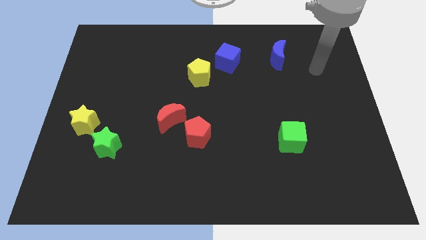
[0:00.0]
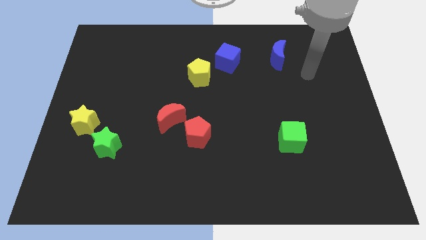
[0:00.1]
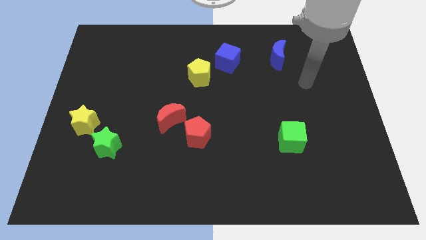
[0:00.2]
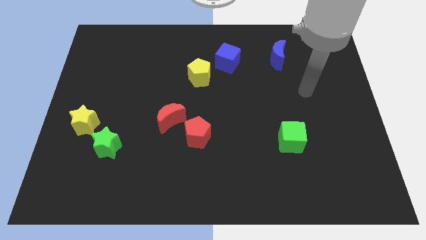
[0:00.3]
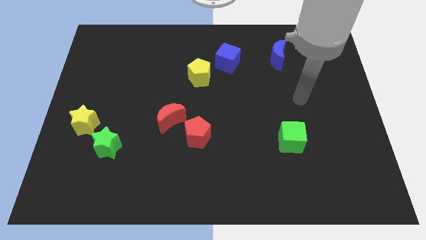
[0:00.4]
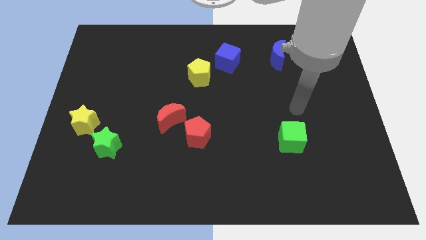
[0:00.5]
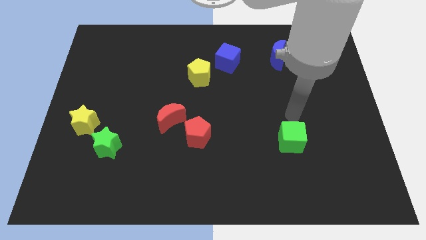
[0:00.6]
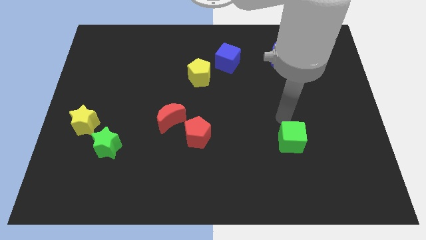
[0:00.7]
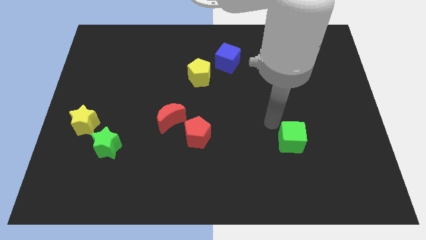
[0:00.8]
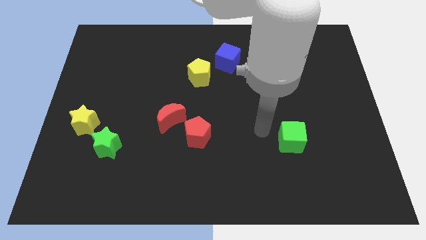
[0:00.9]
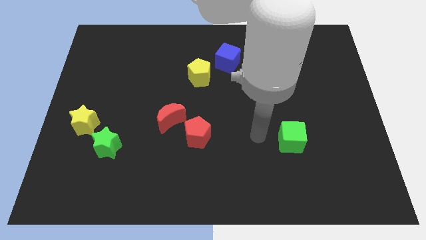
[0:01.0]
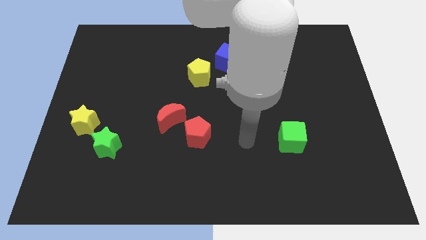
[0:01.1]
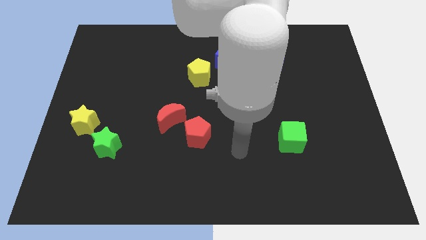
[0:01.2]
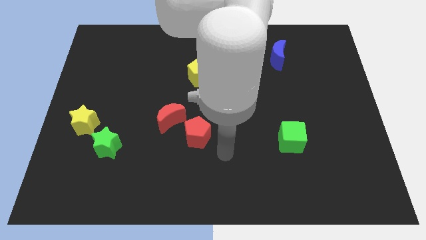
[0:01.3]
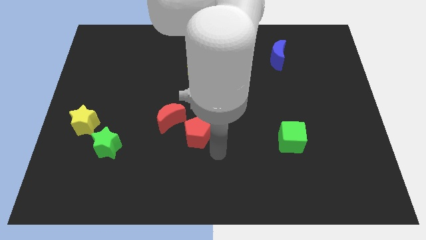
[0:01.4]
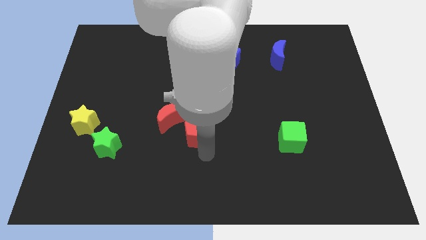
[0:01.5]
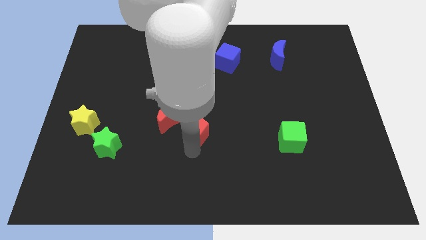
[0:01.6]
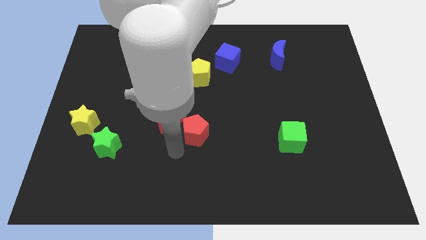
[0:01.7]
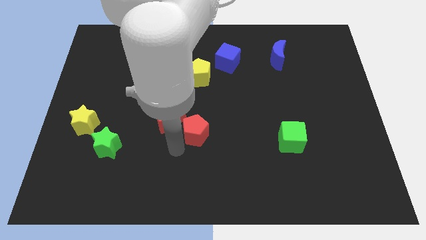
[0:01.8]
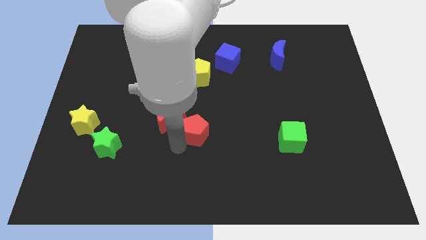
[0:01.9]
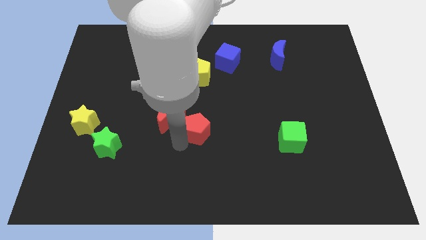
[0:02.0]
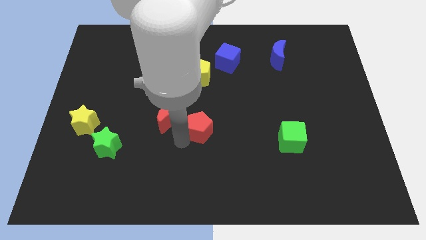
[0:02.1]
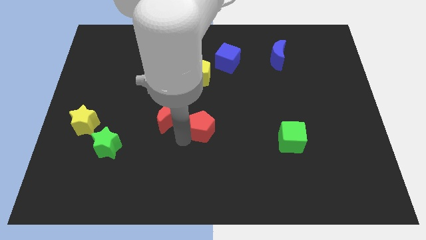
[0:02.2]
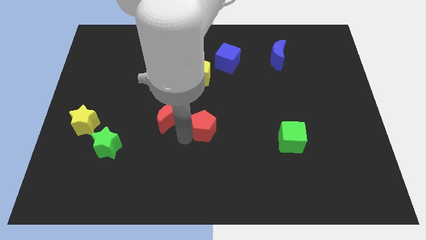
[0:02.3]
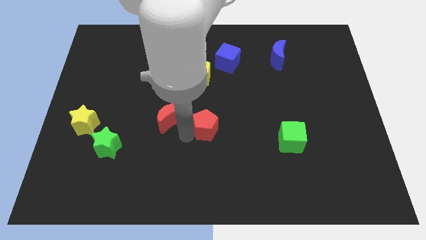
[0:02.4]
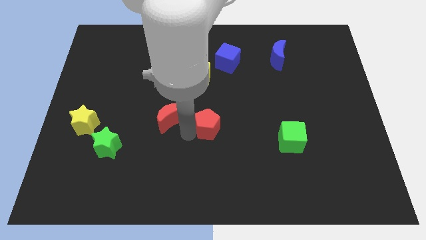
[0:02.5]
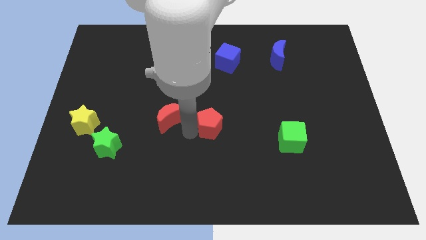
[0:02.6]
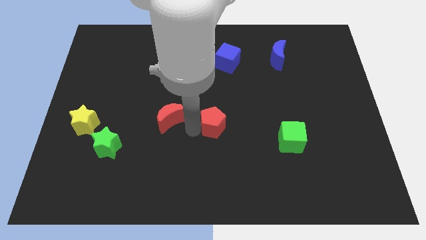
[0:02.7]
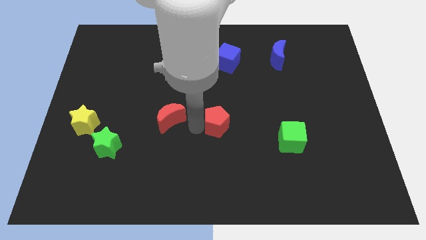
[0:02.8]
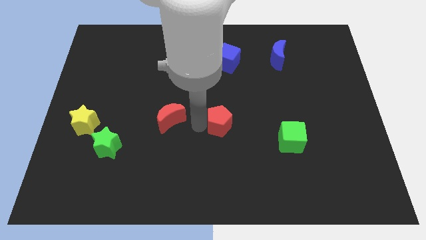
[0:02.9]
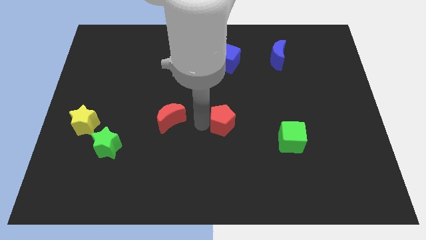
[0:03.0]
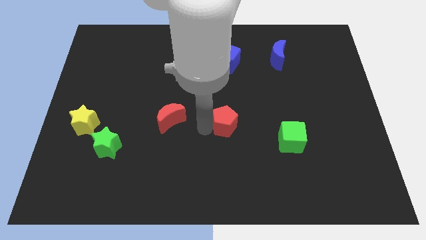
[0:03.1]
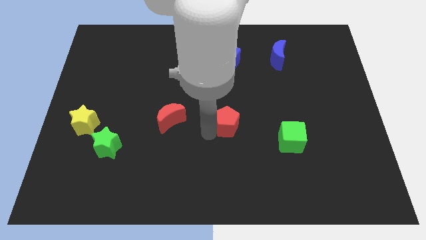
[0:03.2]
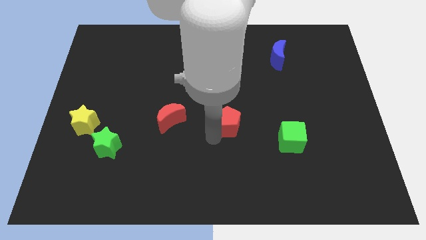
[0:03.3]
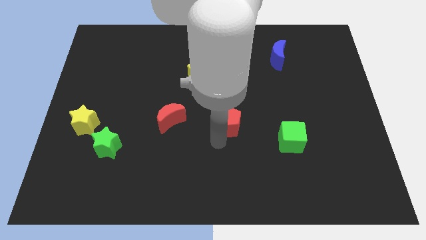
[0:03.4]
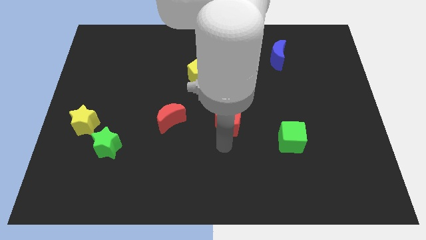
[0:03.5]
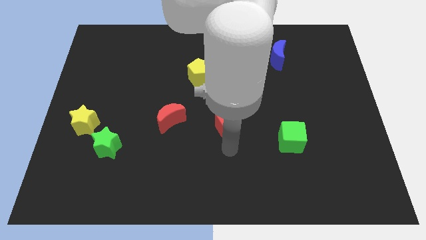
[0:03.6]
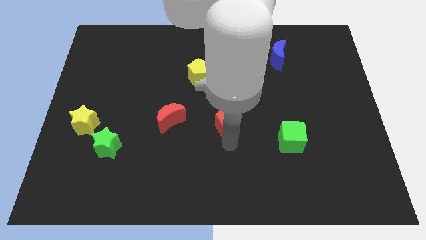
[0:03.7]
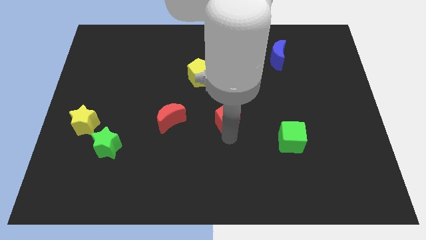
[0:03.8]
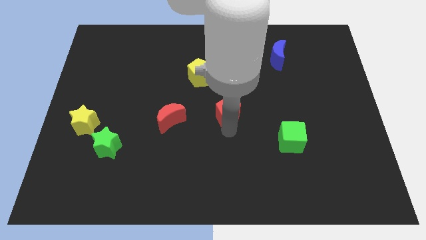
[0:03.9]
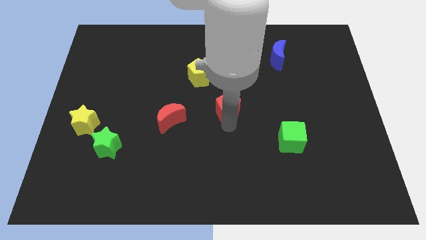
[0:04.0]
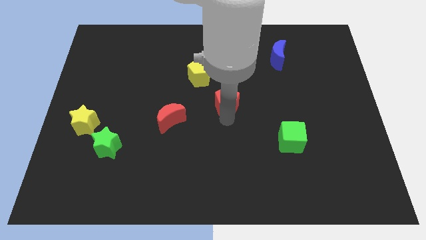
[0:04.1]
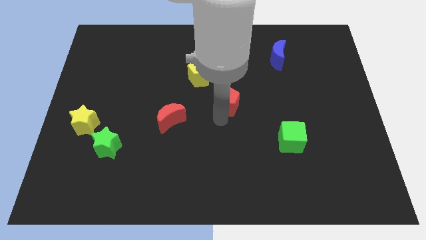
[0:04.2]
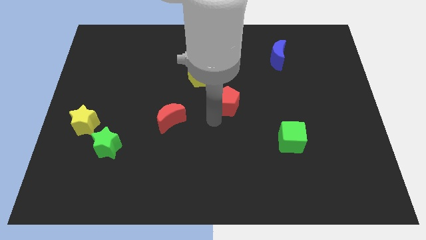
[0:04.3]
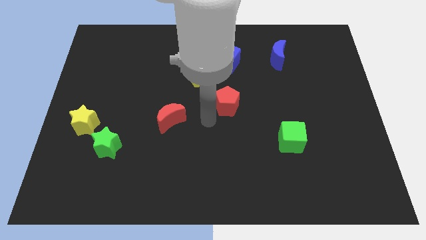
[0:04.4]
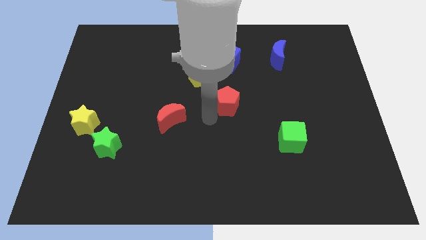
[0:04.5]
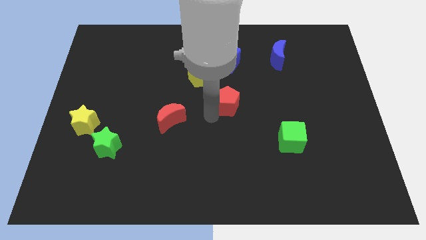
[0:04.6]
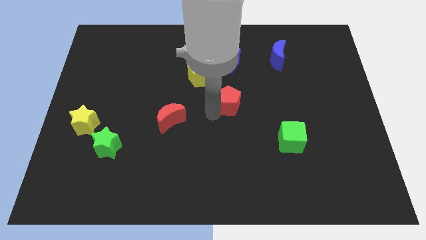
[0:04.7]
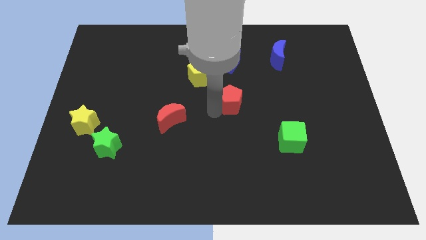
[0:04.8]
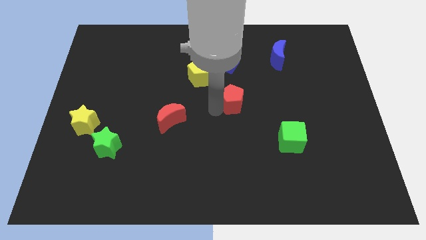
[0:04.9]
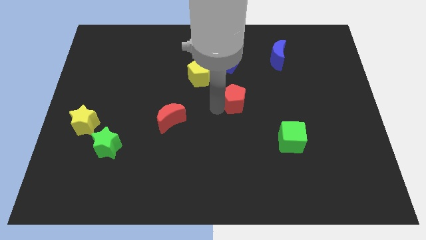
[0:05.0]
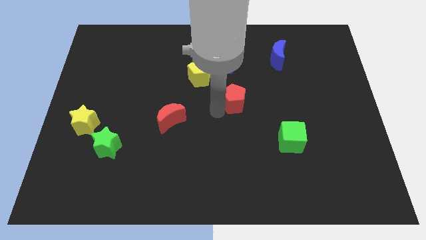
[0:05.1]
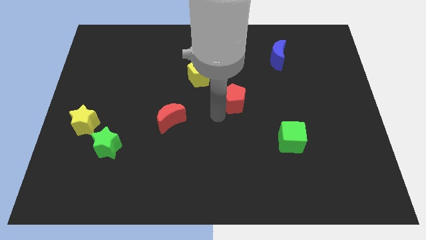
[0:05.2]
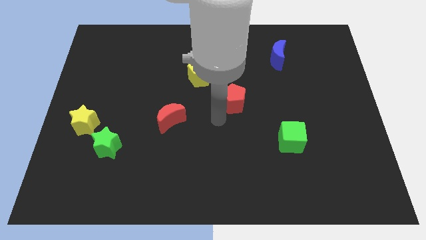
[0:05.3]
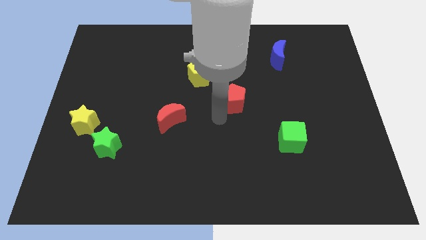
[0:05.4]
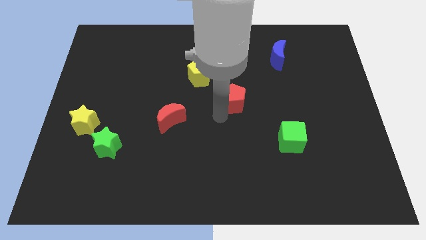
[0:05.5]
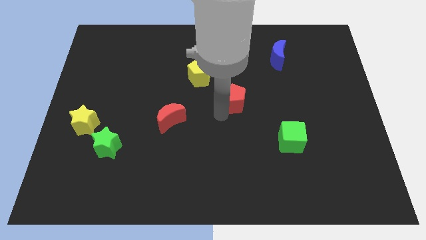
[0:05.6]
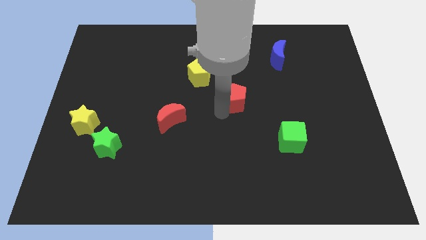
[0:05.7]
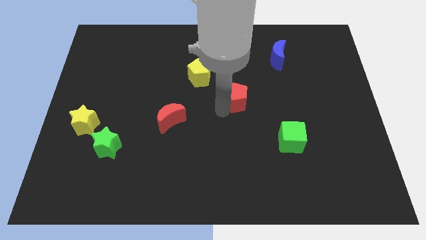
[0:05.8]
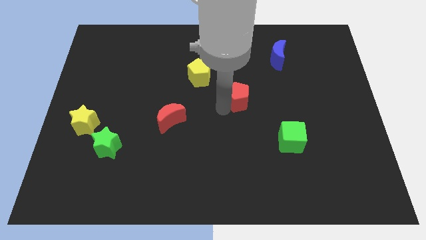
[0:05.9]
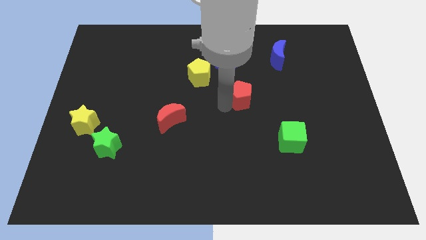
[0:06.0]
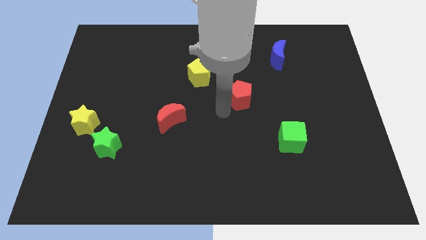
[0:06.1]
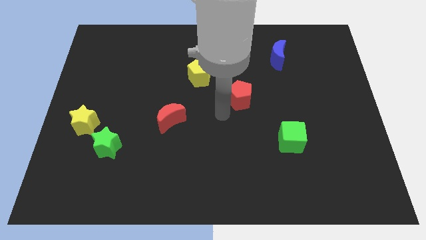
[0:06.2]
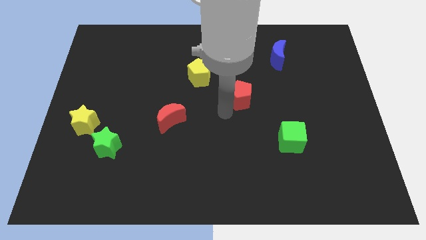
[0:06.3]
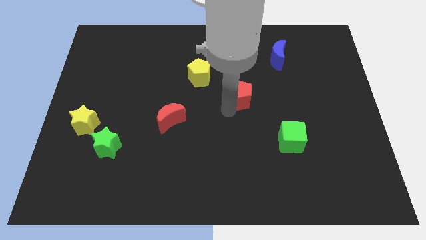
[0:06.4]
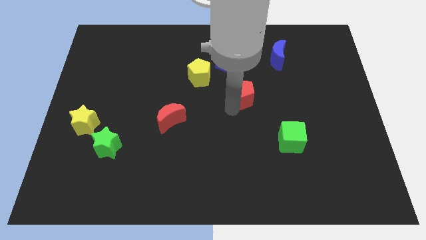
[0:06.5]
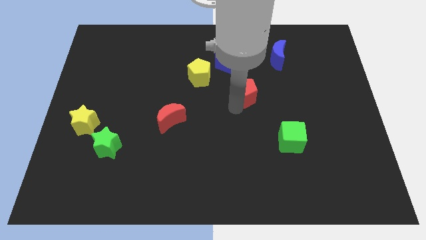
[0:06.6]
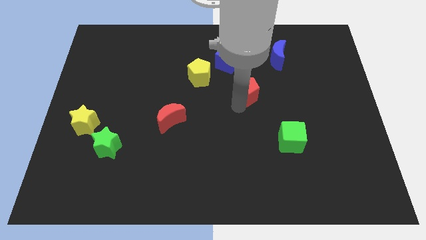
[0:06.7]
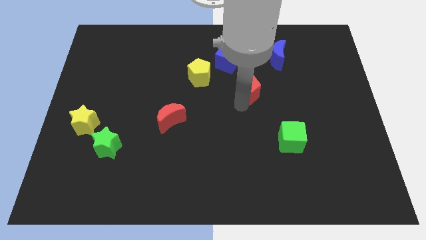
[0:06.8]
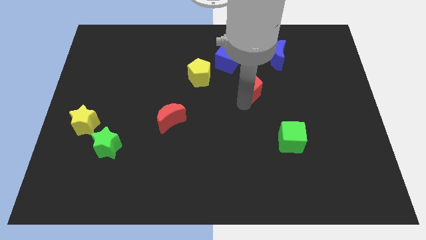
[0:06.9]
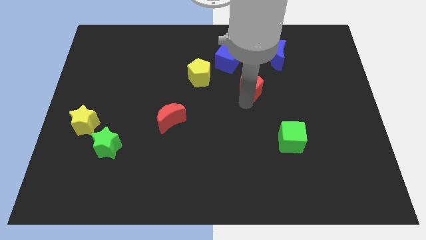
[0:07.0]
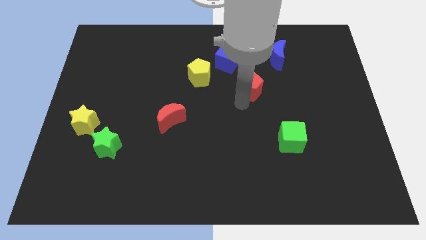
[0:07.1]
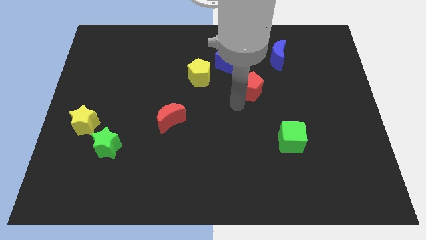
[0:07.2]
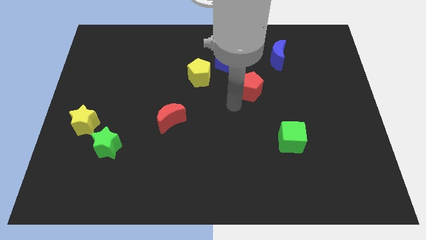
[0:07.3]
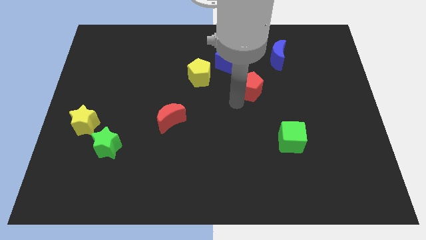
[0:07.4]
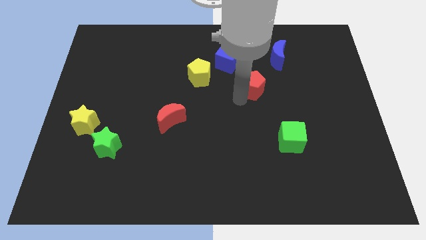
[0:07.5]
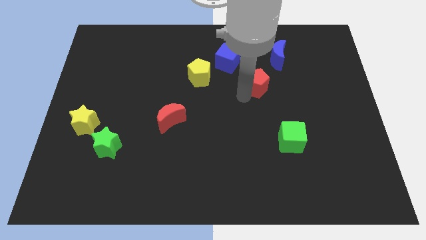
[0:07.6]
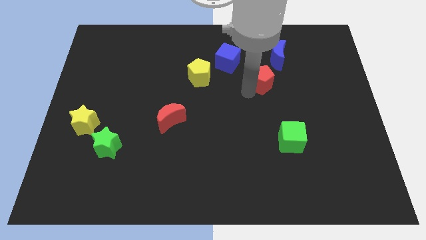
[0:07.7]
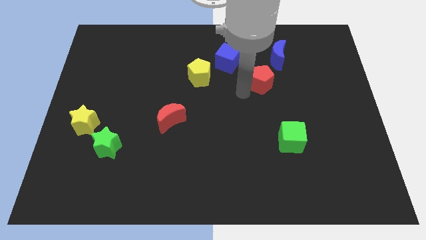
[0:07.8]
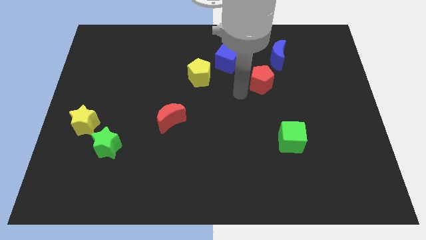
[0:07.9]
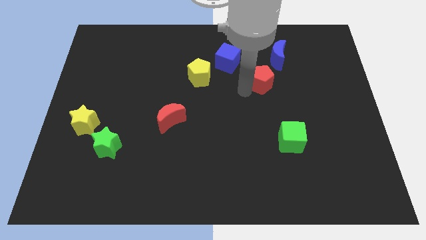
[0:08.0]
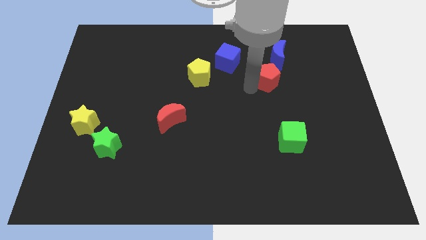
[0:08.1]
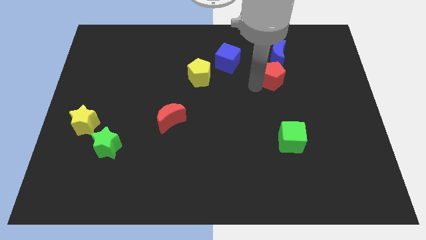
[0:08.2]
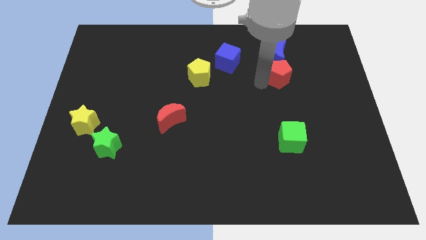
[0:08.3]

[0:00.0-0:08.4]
slide the red pentagon diagonally down and to the right of the blue moon
